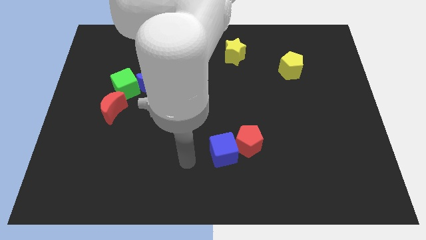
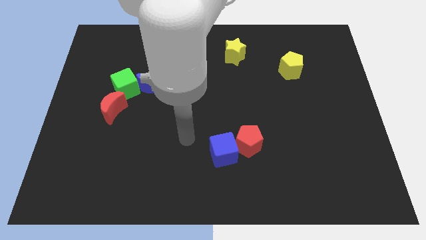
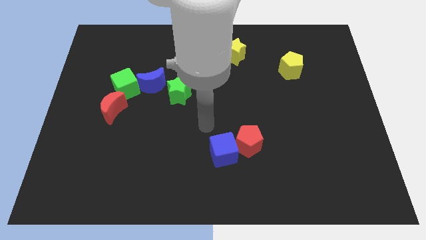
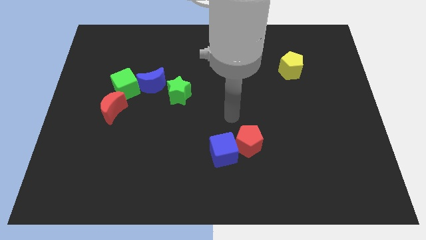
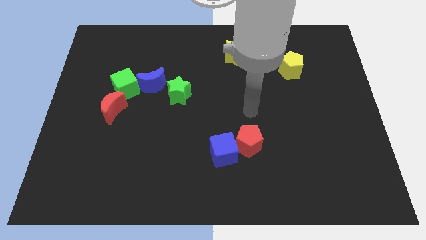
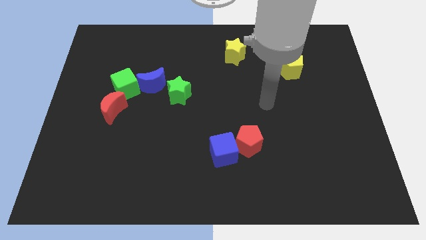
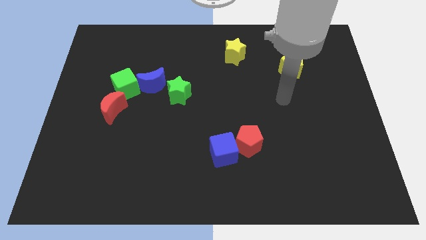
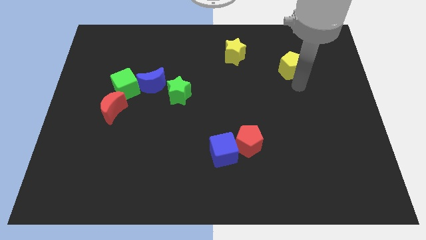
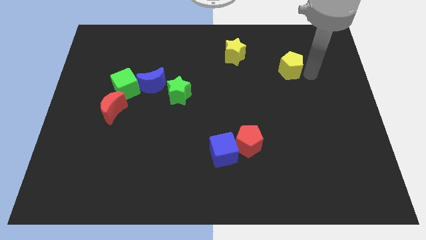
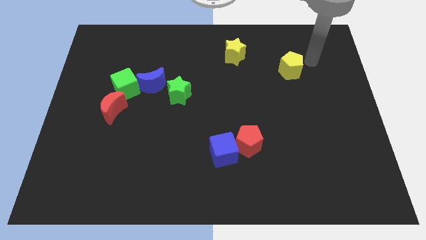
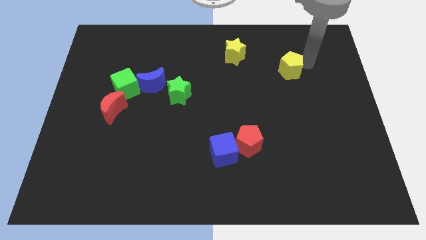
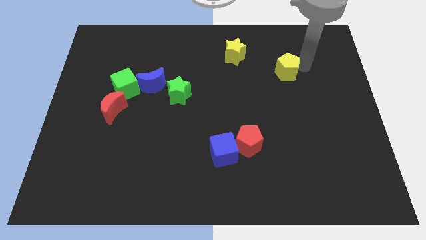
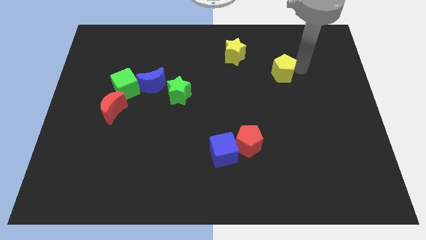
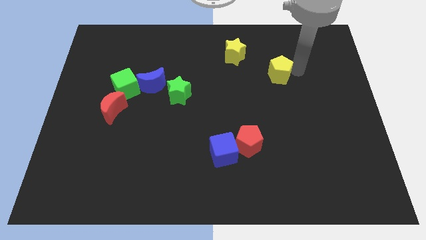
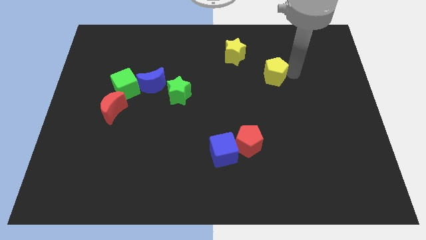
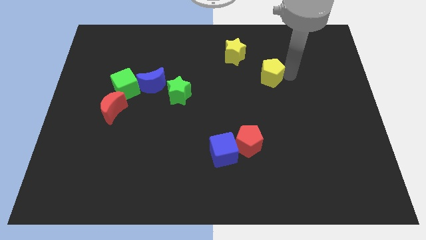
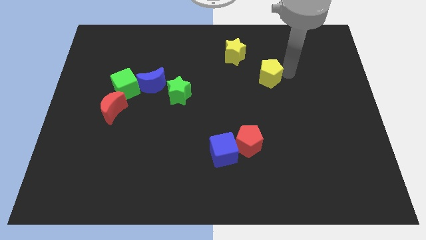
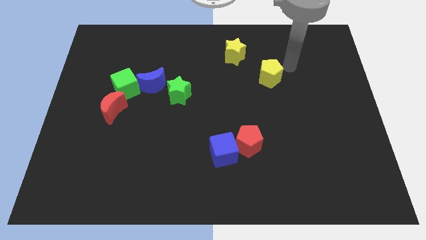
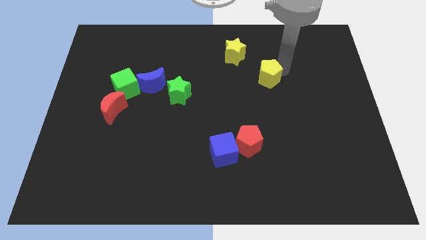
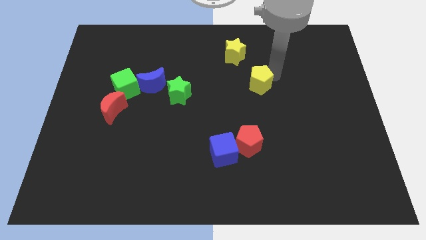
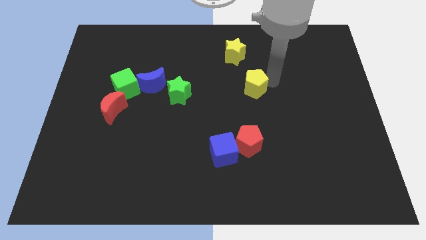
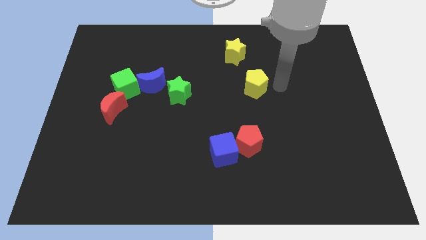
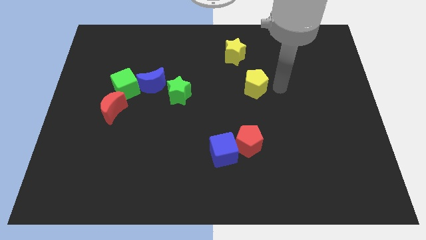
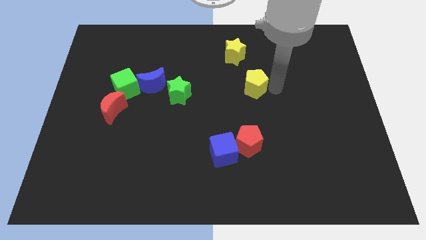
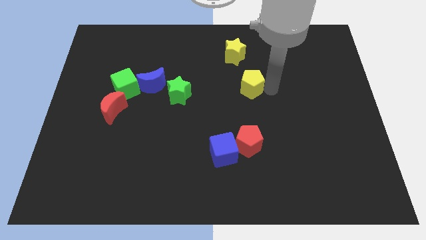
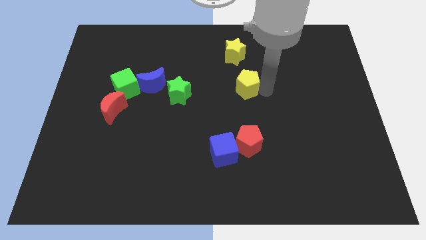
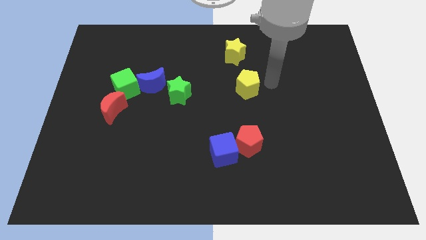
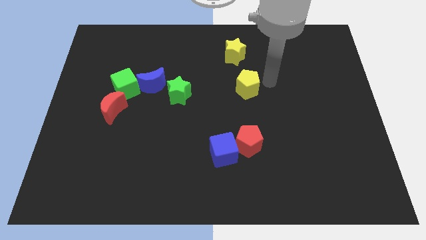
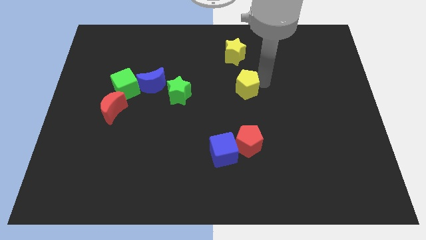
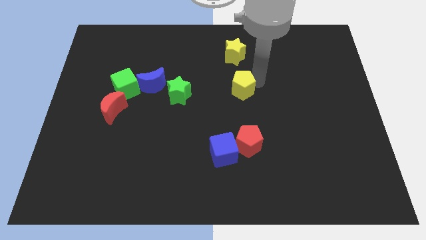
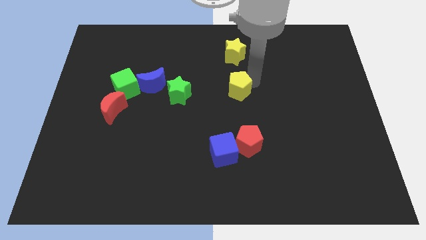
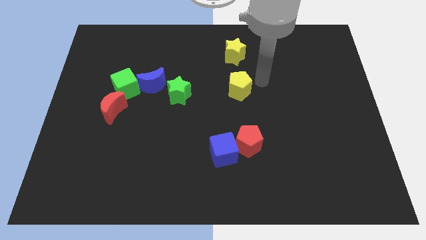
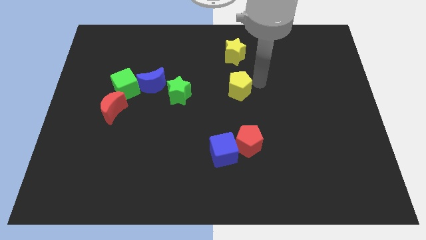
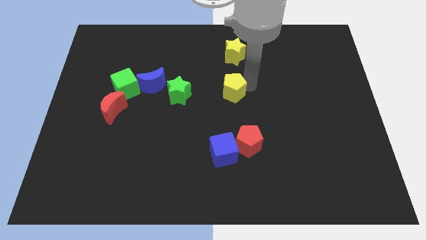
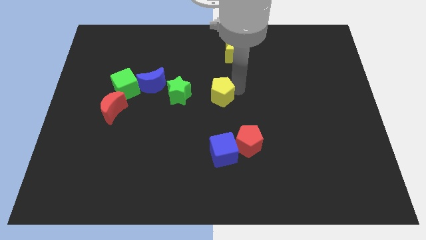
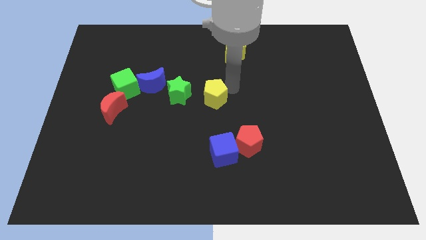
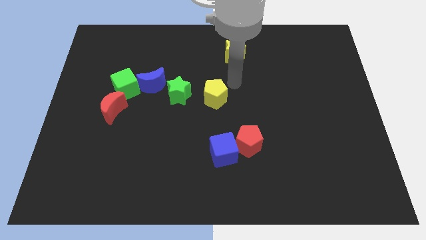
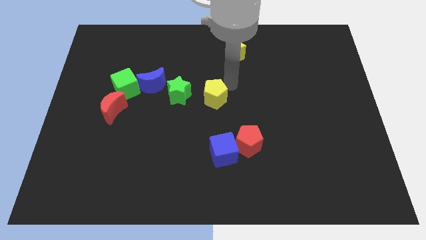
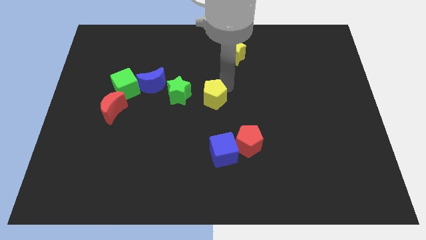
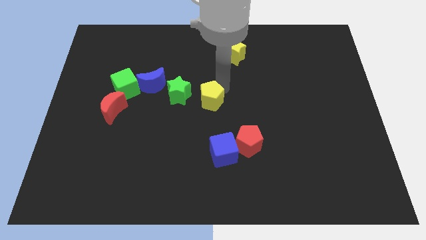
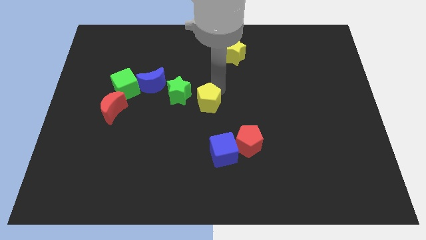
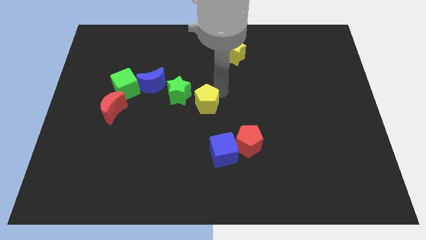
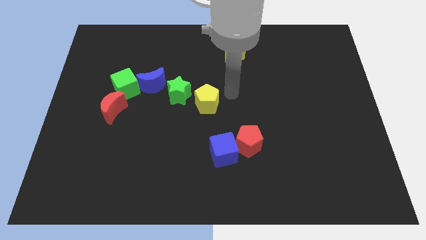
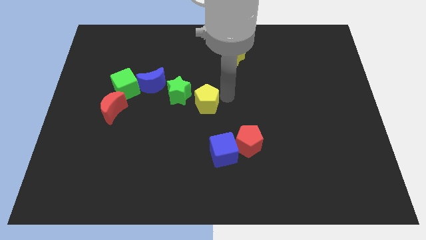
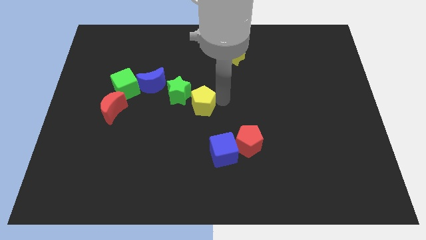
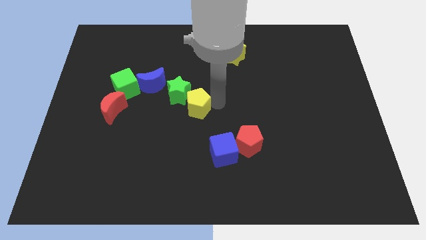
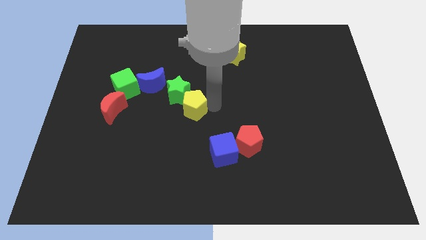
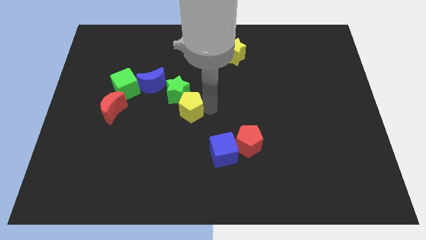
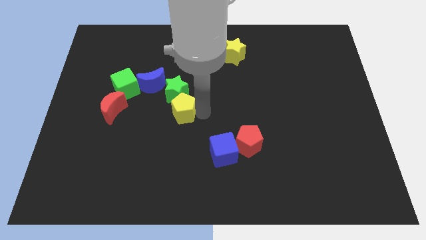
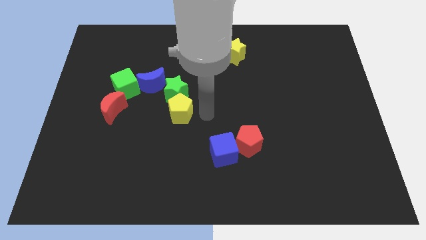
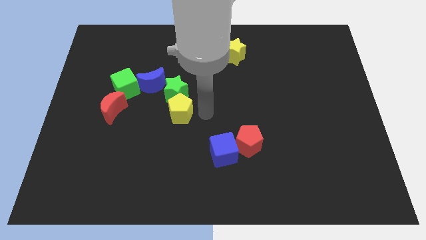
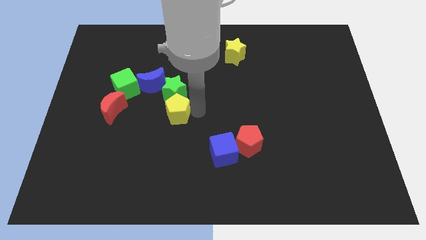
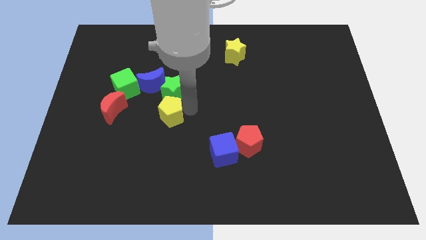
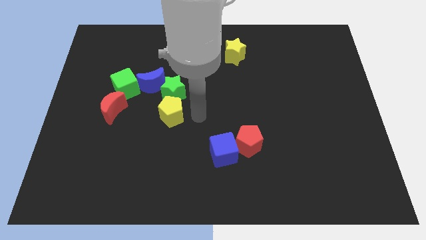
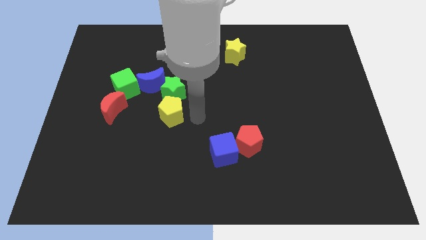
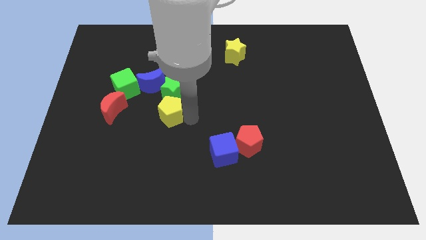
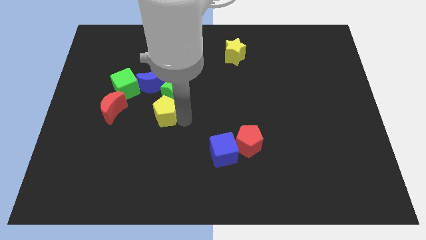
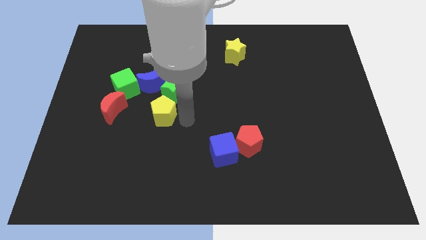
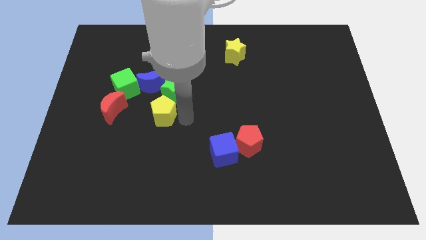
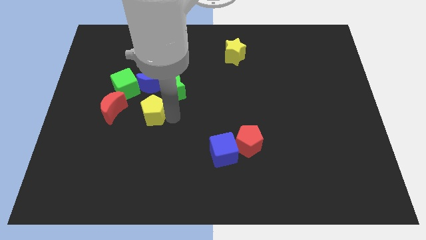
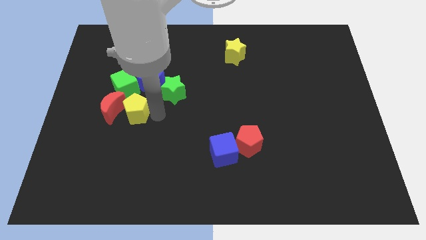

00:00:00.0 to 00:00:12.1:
put the yellow pentagon to the red moon

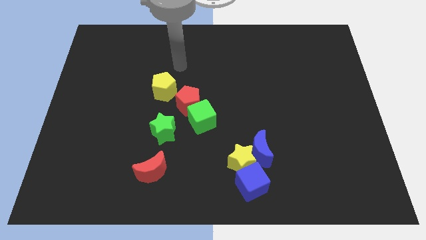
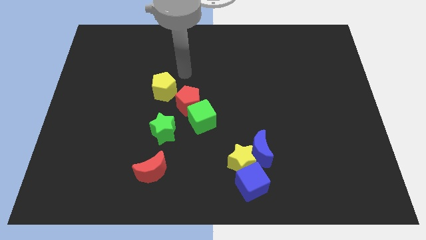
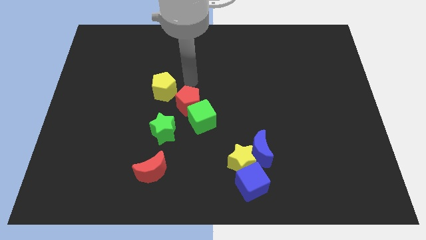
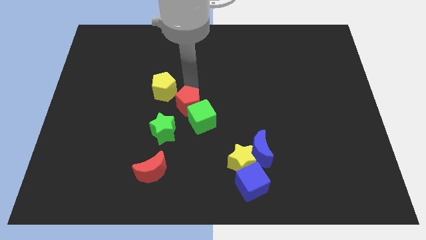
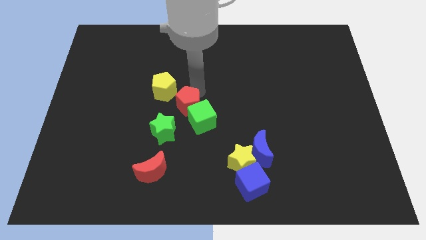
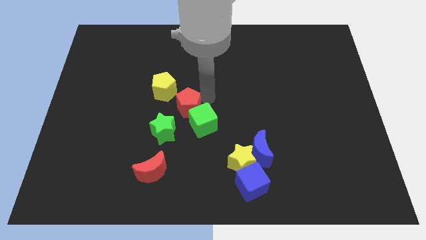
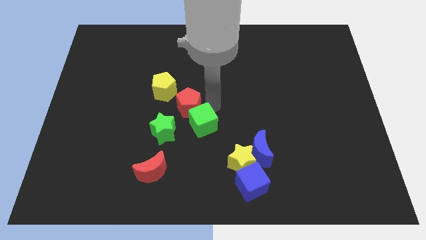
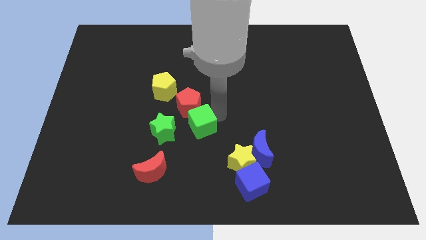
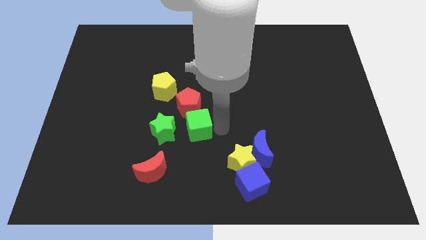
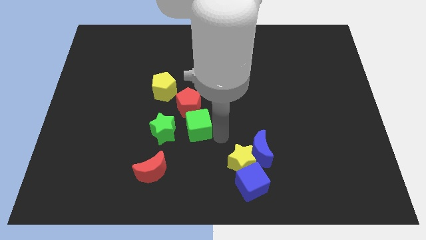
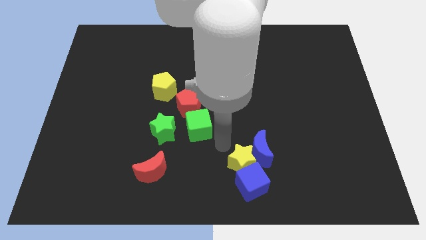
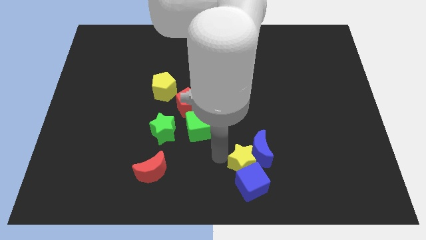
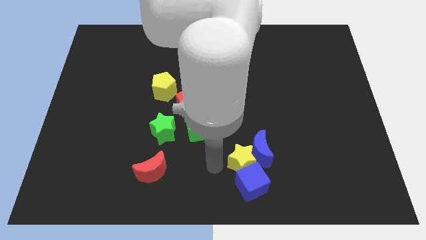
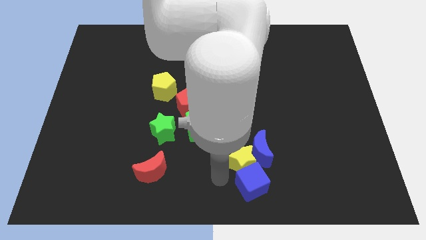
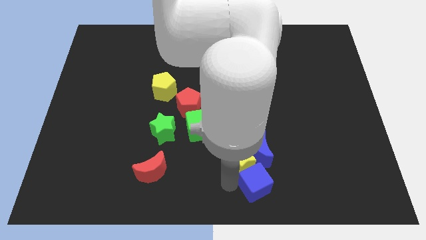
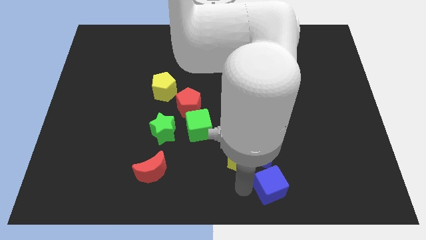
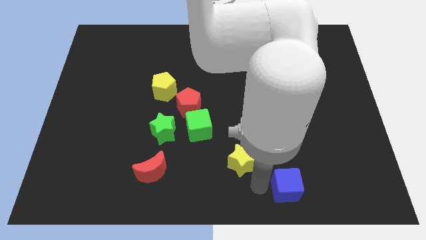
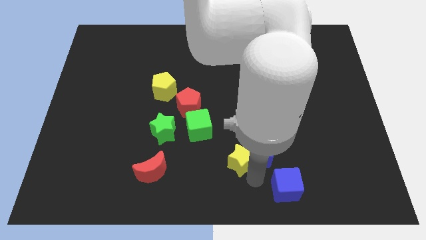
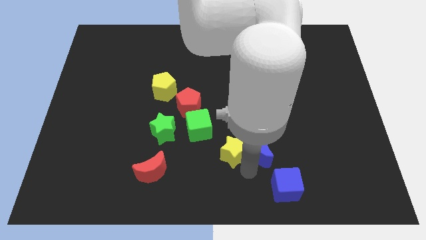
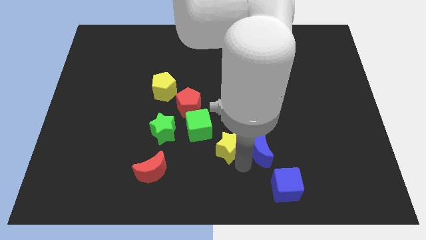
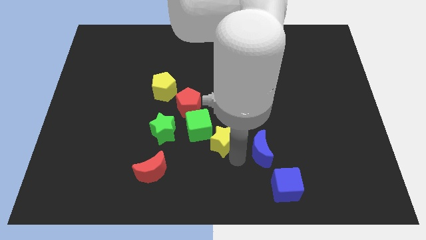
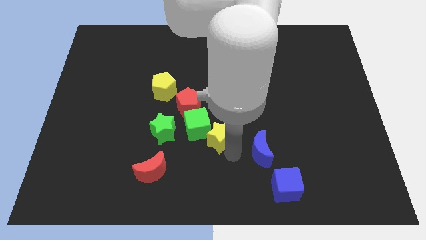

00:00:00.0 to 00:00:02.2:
put the yellow star next to the green cube
